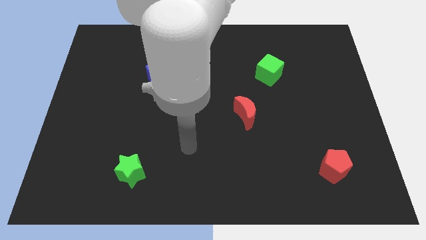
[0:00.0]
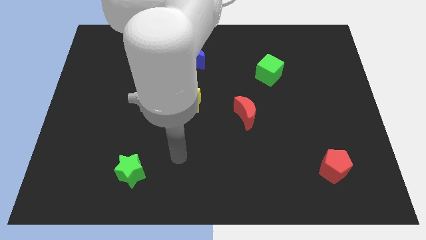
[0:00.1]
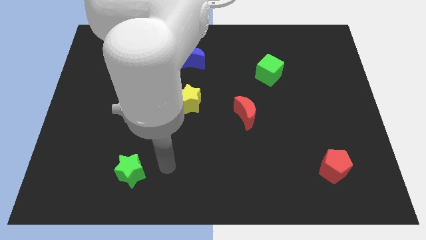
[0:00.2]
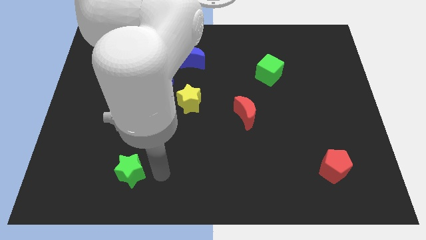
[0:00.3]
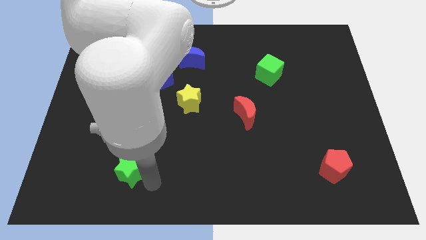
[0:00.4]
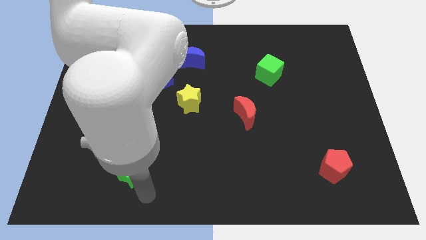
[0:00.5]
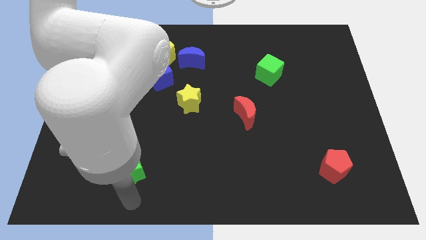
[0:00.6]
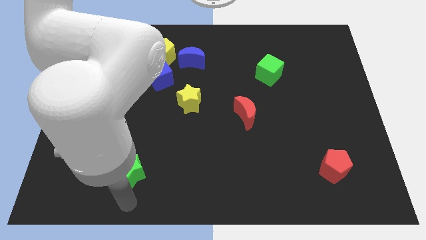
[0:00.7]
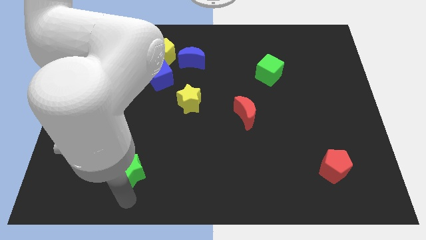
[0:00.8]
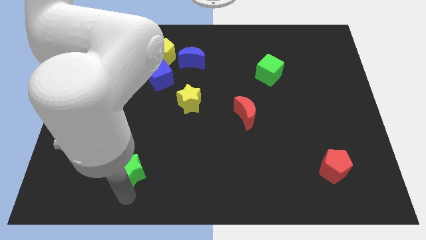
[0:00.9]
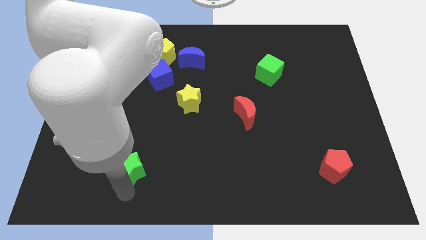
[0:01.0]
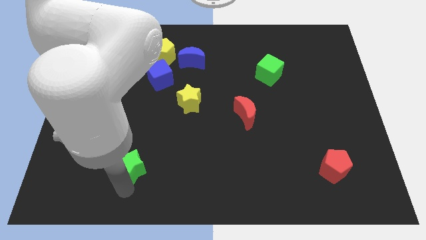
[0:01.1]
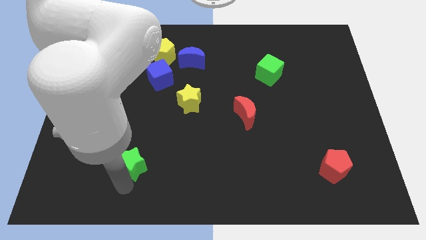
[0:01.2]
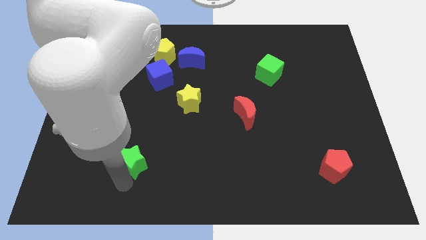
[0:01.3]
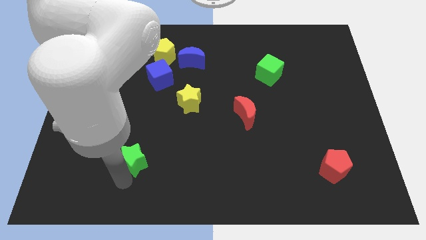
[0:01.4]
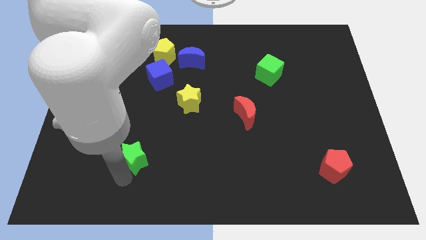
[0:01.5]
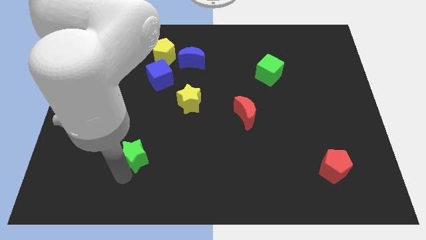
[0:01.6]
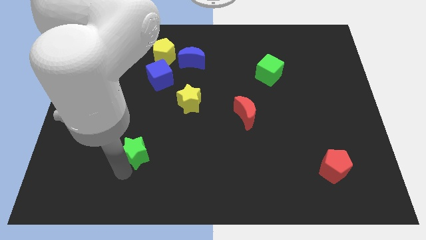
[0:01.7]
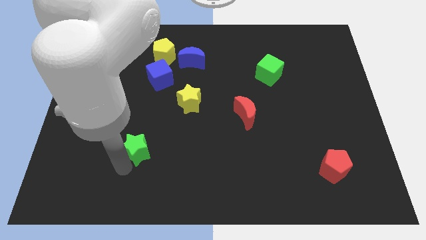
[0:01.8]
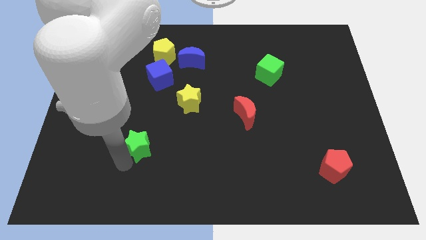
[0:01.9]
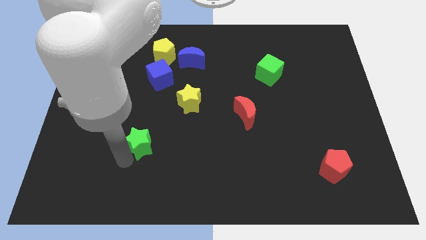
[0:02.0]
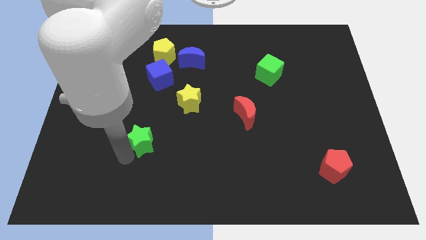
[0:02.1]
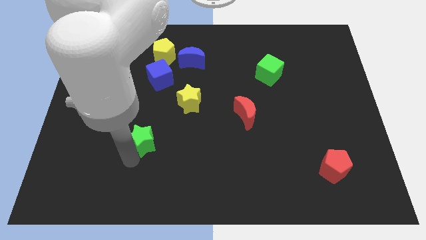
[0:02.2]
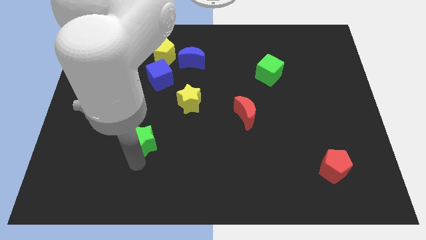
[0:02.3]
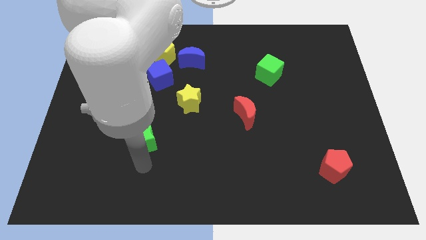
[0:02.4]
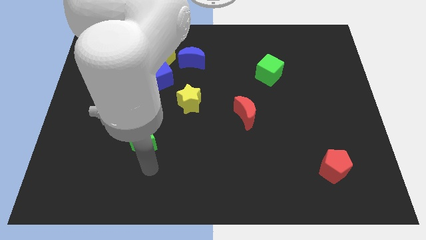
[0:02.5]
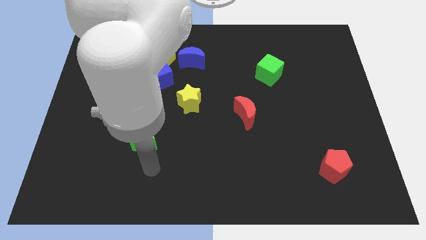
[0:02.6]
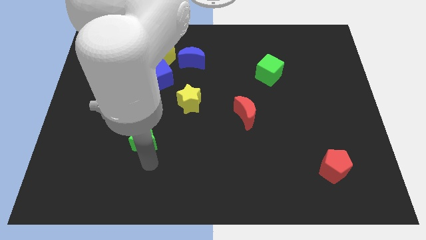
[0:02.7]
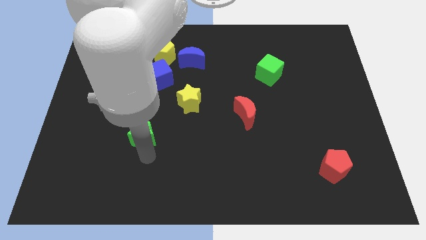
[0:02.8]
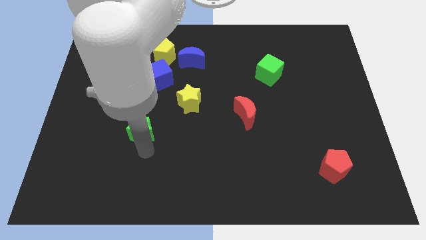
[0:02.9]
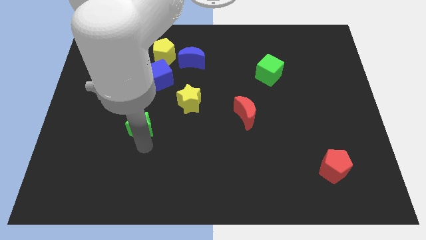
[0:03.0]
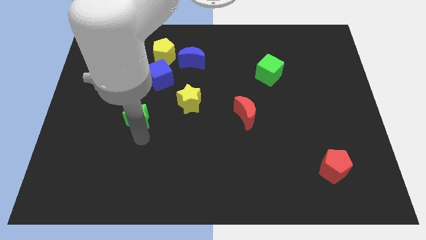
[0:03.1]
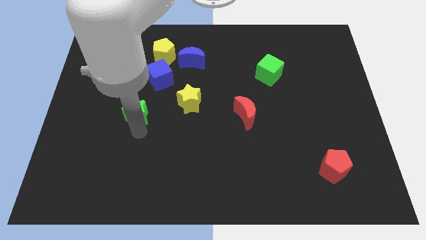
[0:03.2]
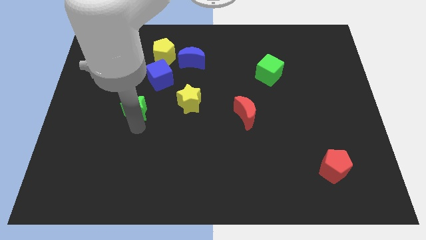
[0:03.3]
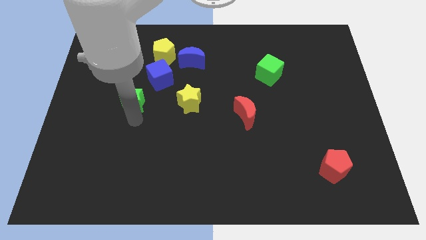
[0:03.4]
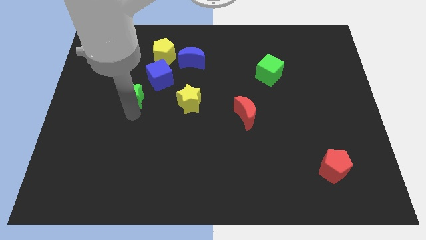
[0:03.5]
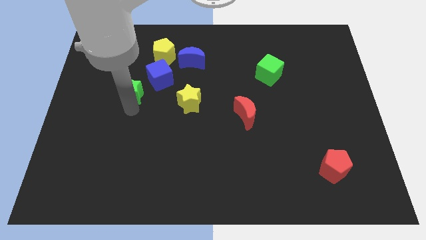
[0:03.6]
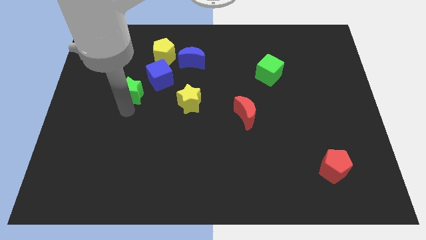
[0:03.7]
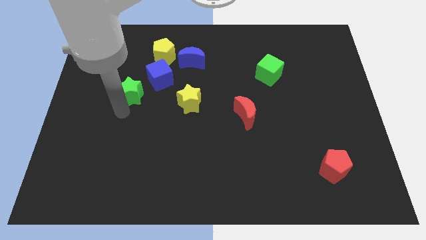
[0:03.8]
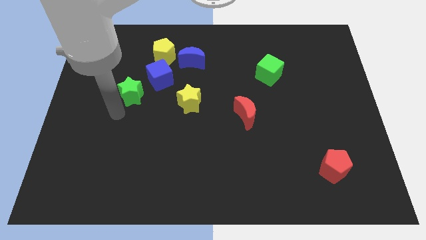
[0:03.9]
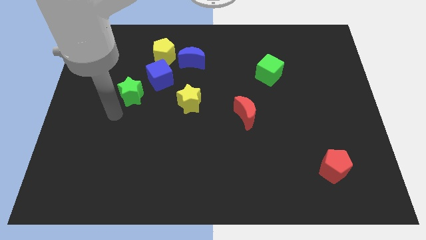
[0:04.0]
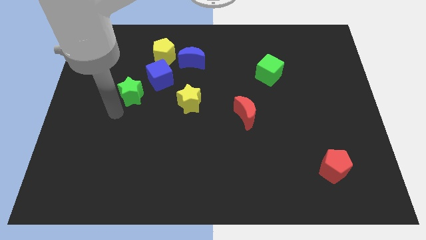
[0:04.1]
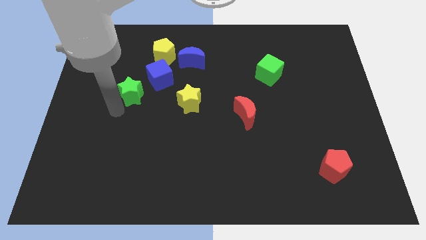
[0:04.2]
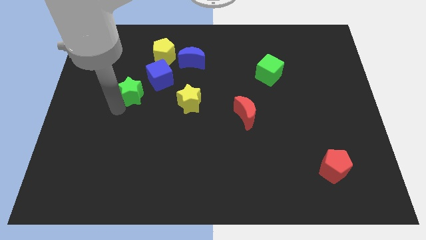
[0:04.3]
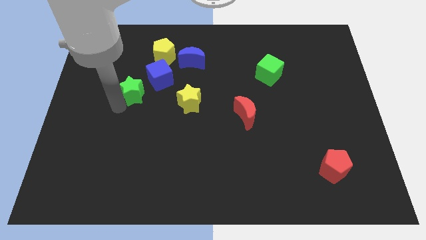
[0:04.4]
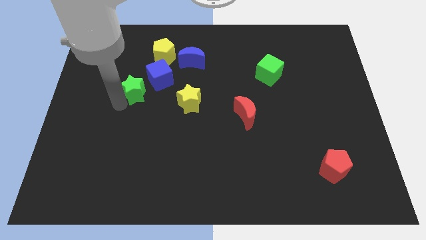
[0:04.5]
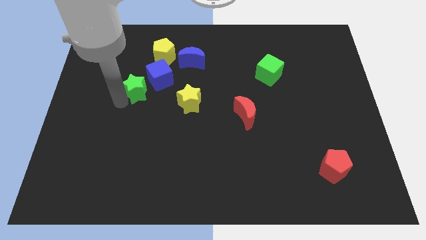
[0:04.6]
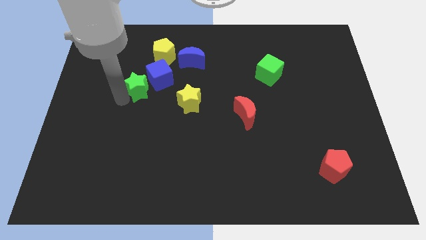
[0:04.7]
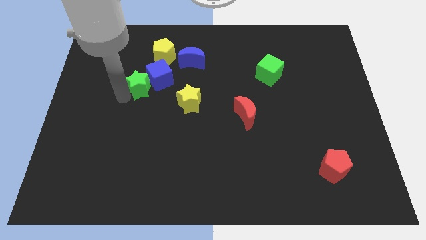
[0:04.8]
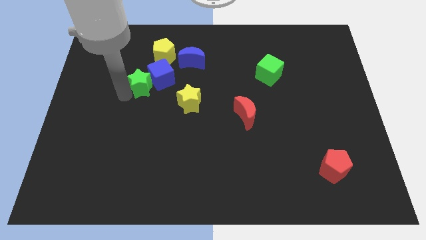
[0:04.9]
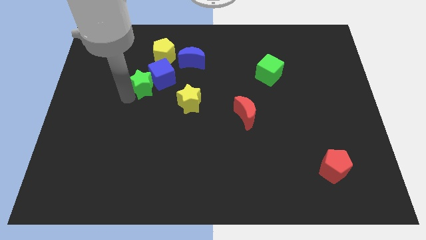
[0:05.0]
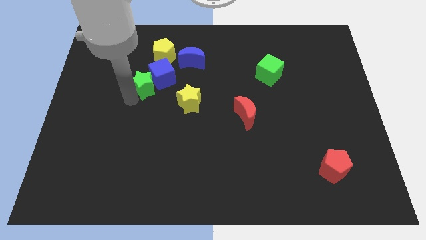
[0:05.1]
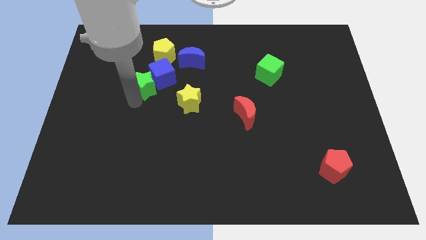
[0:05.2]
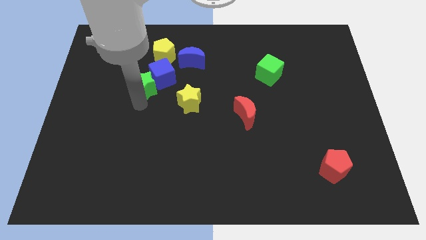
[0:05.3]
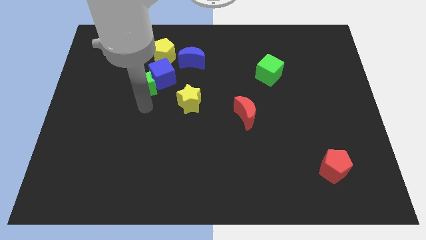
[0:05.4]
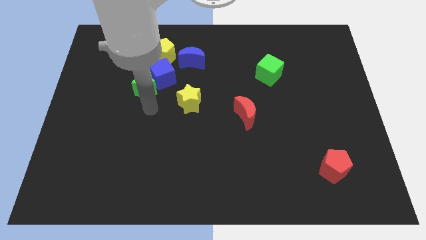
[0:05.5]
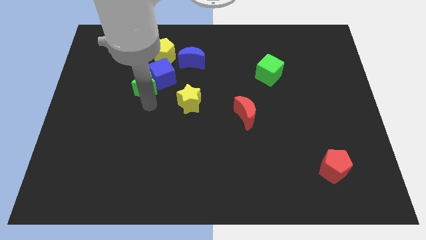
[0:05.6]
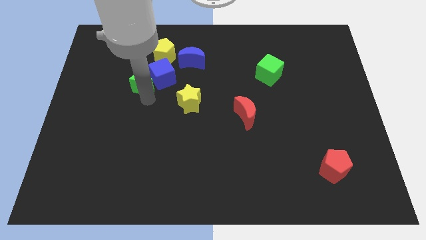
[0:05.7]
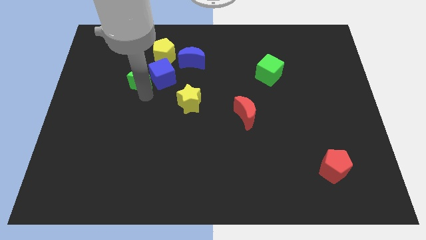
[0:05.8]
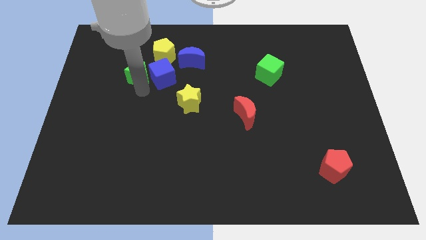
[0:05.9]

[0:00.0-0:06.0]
move the green star to the top left of the blue cube

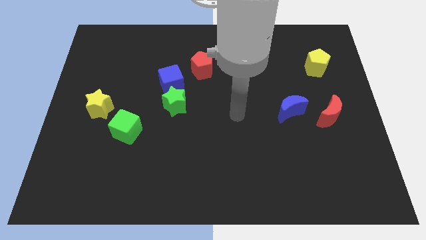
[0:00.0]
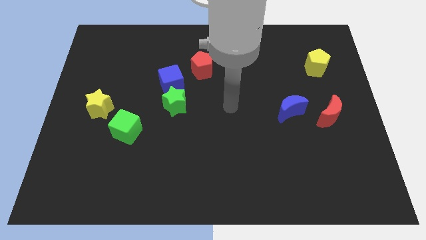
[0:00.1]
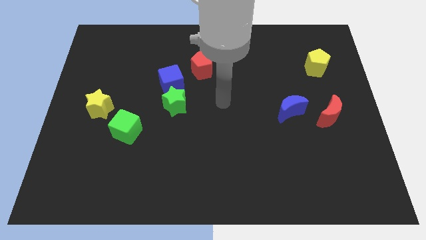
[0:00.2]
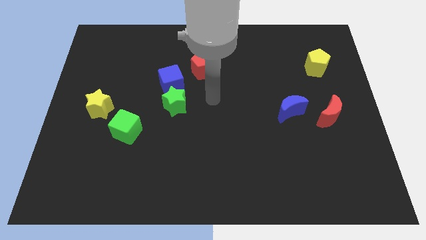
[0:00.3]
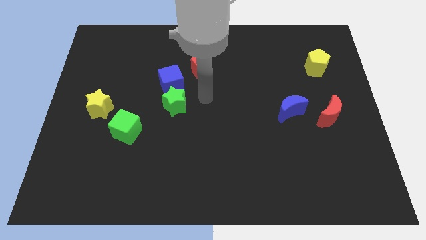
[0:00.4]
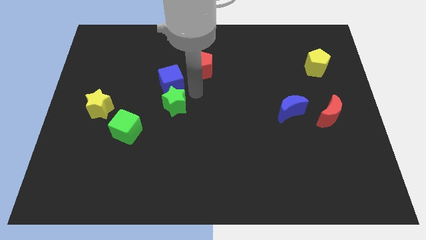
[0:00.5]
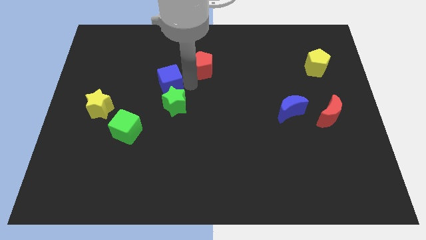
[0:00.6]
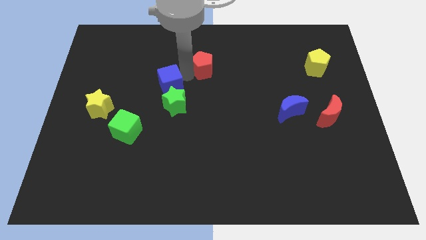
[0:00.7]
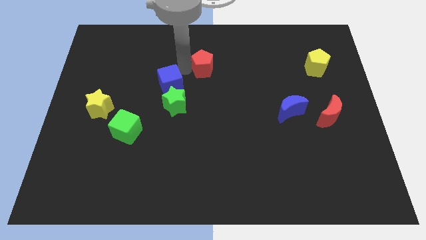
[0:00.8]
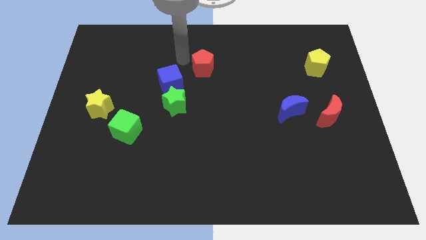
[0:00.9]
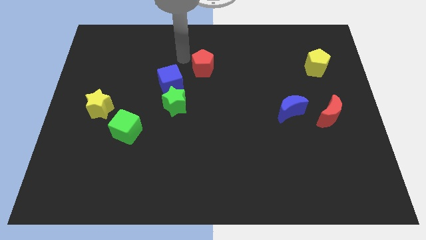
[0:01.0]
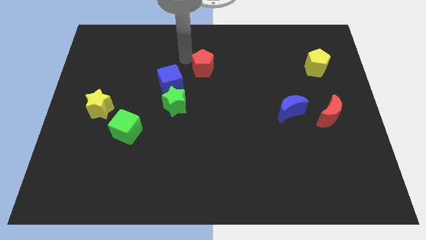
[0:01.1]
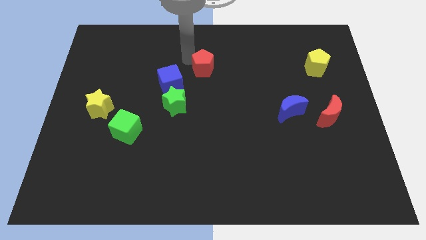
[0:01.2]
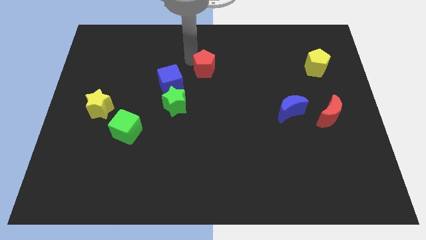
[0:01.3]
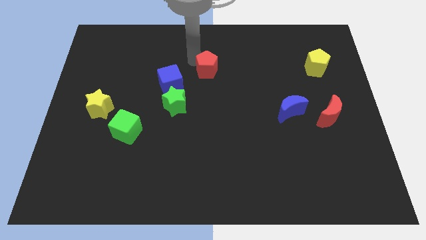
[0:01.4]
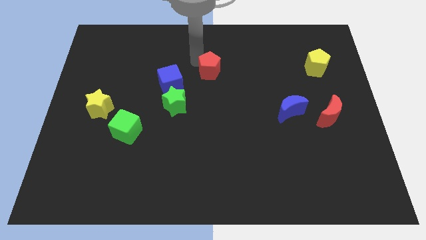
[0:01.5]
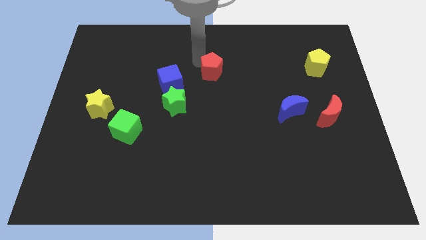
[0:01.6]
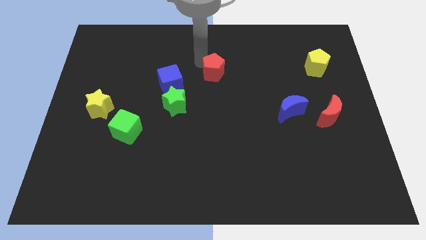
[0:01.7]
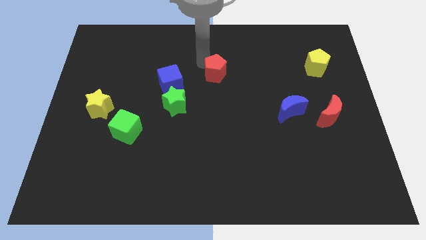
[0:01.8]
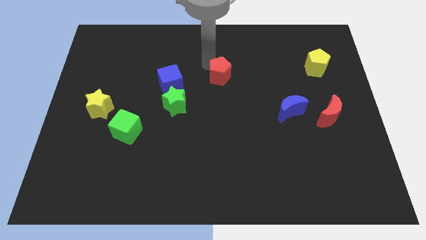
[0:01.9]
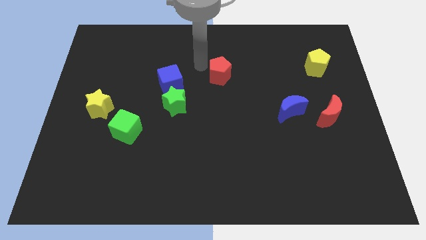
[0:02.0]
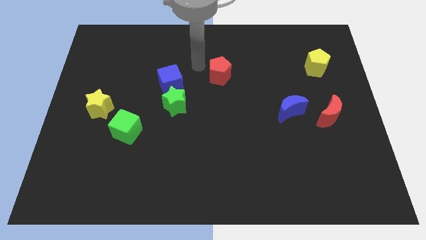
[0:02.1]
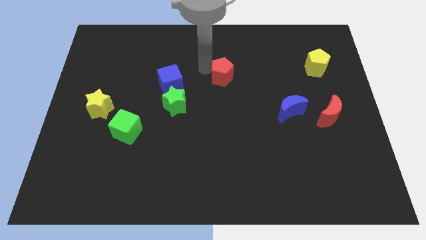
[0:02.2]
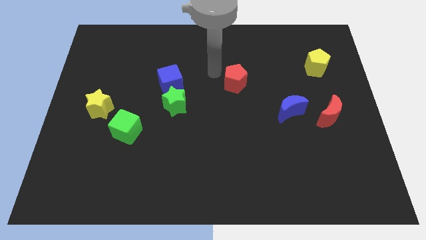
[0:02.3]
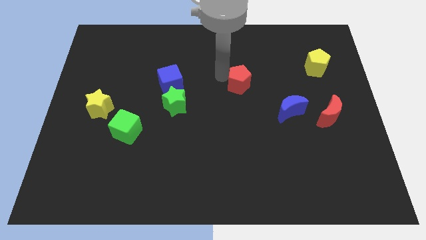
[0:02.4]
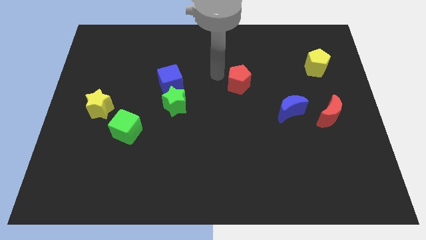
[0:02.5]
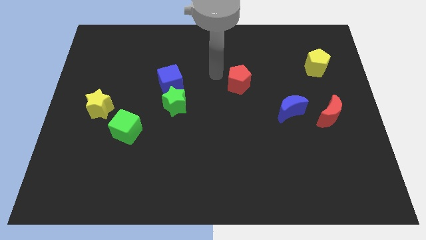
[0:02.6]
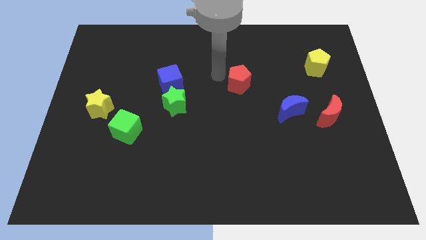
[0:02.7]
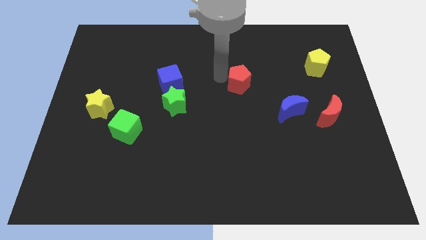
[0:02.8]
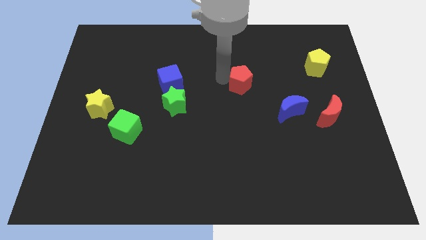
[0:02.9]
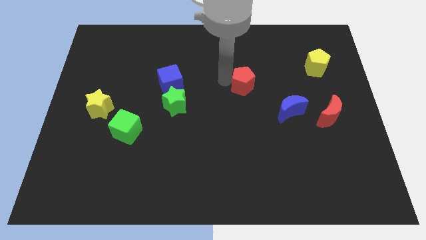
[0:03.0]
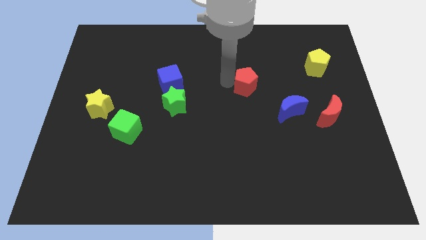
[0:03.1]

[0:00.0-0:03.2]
put the red pentagon to the top left side of the blue moon
